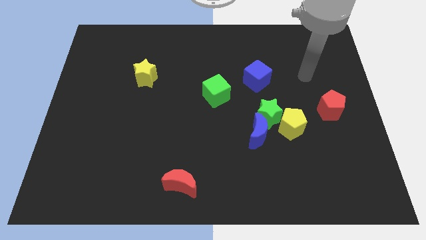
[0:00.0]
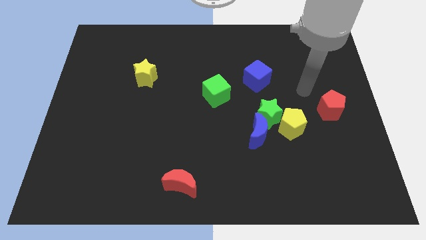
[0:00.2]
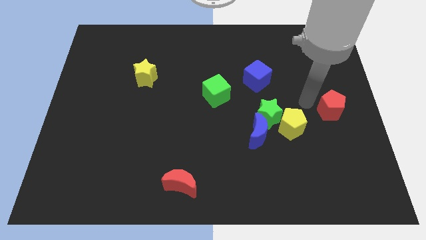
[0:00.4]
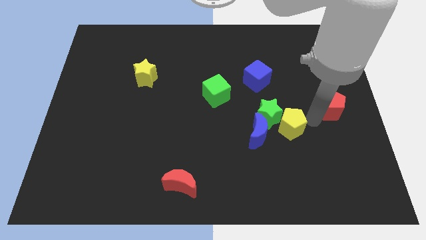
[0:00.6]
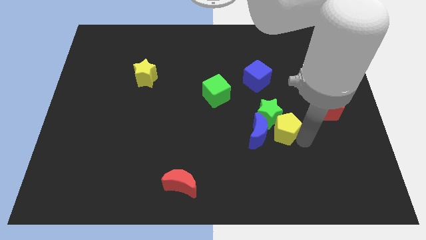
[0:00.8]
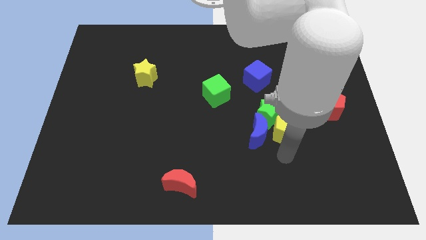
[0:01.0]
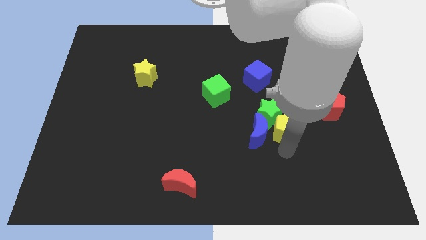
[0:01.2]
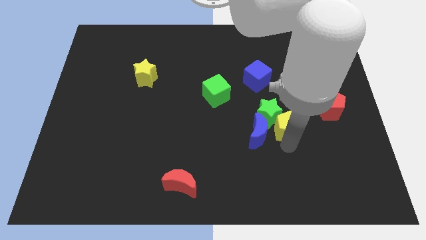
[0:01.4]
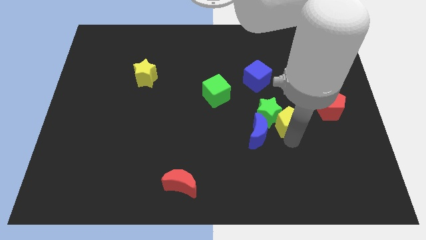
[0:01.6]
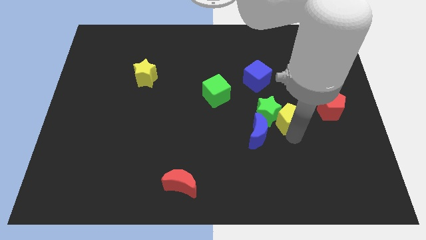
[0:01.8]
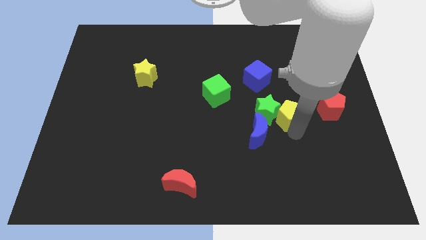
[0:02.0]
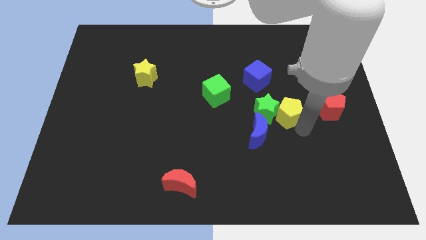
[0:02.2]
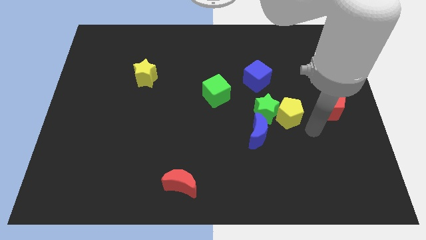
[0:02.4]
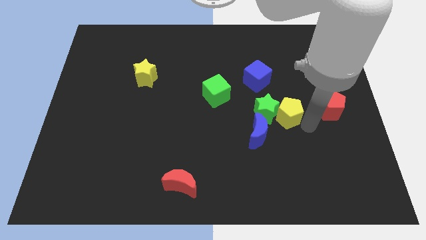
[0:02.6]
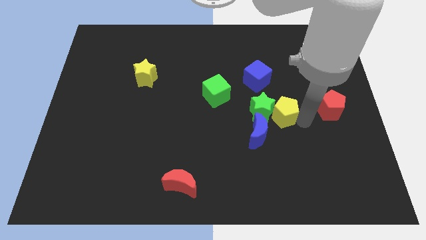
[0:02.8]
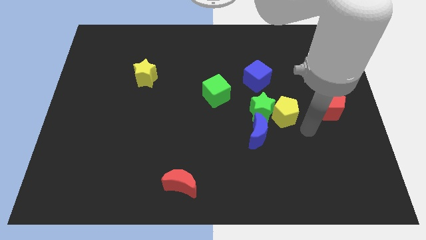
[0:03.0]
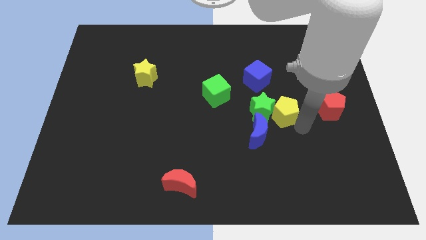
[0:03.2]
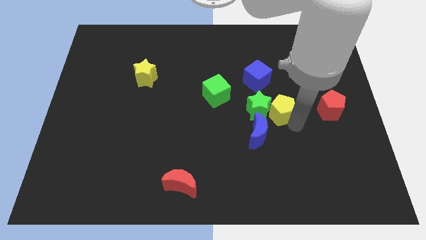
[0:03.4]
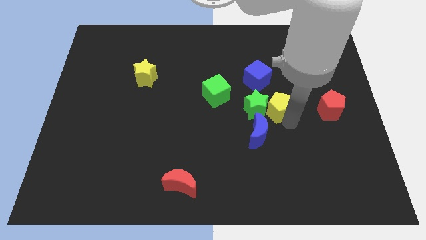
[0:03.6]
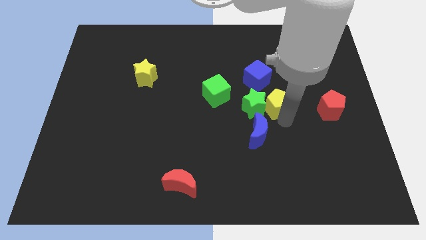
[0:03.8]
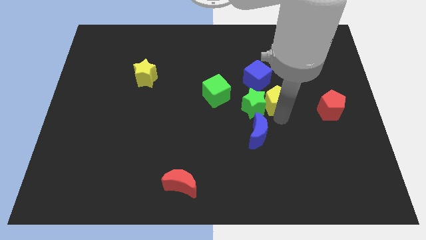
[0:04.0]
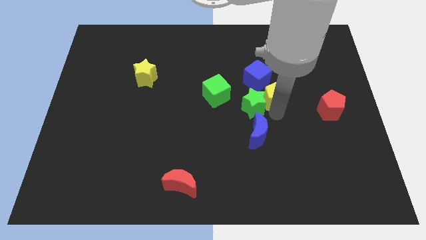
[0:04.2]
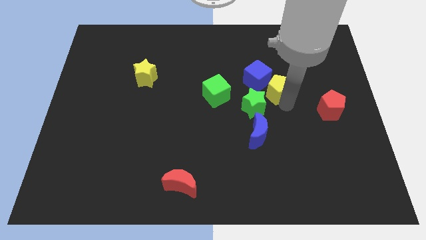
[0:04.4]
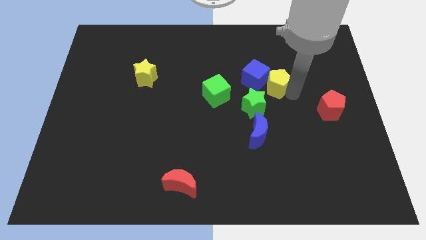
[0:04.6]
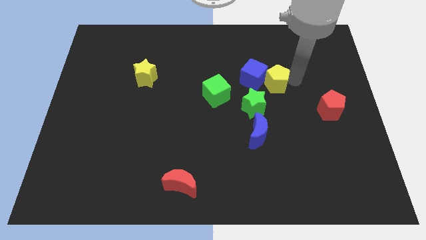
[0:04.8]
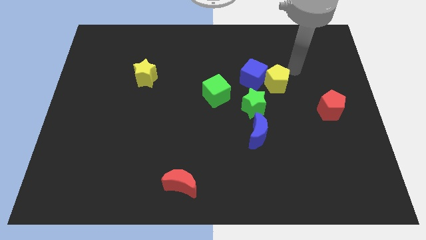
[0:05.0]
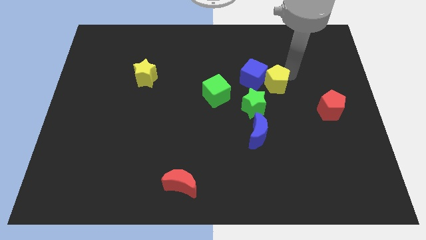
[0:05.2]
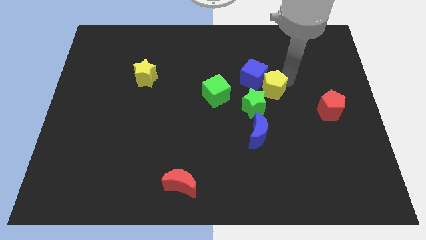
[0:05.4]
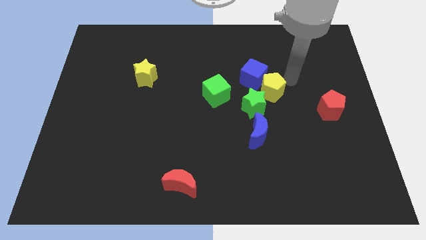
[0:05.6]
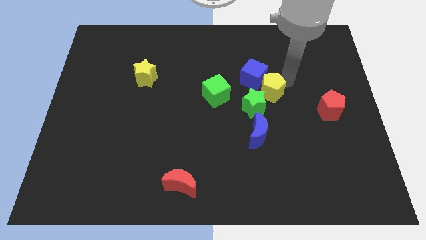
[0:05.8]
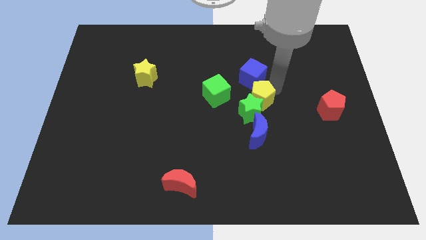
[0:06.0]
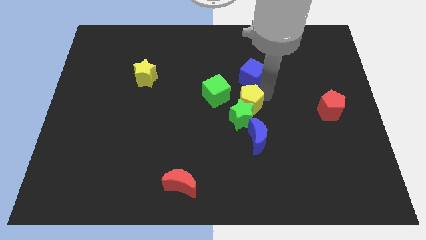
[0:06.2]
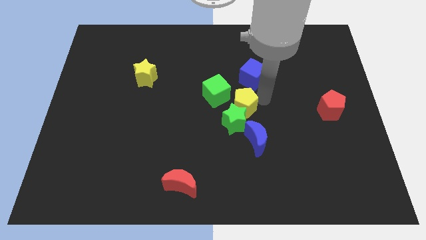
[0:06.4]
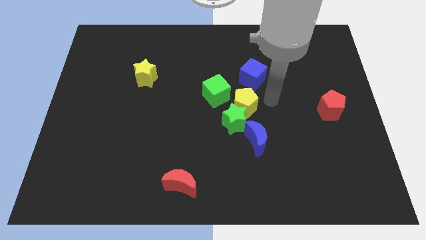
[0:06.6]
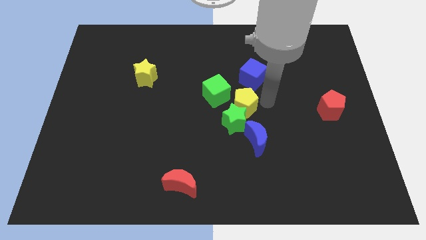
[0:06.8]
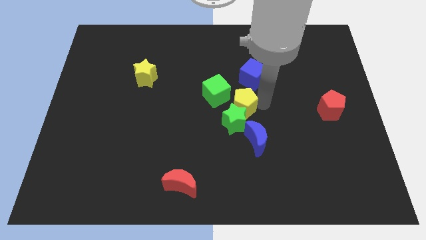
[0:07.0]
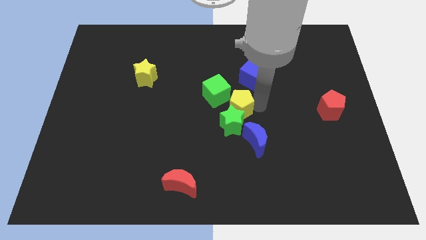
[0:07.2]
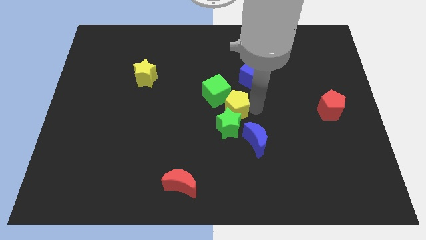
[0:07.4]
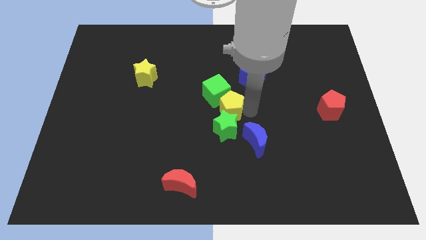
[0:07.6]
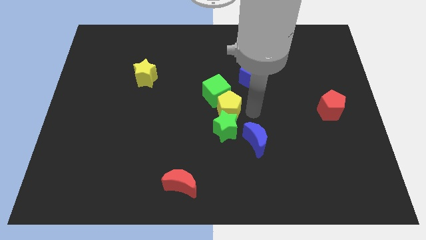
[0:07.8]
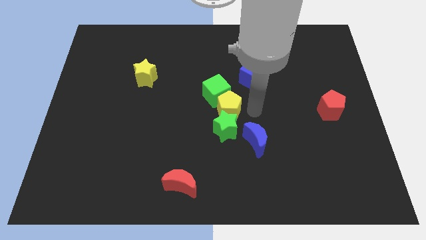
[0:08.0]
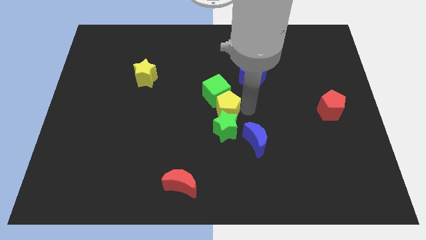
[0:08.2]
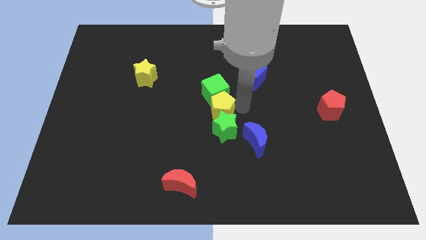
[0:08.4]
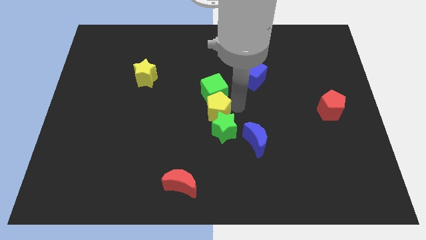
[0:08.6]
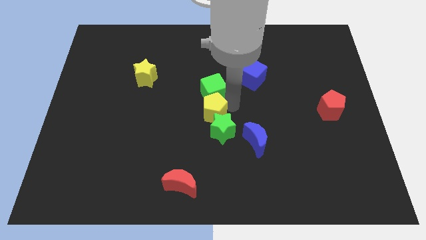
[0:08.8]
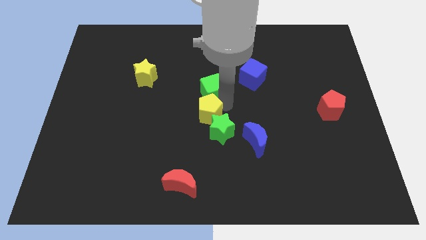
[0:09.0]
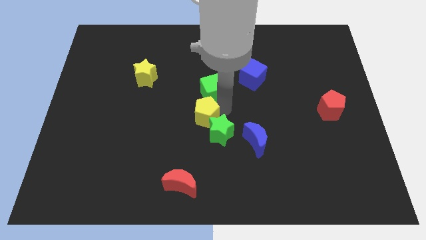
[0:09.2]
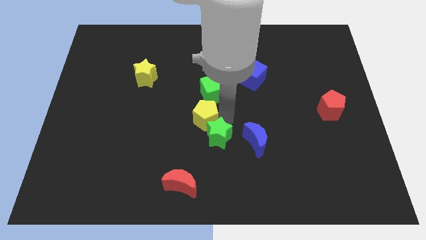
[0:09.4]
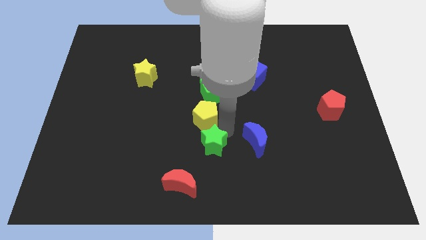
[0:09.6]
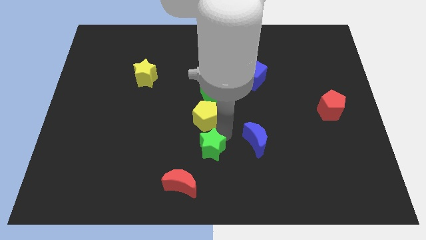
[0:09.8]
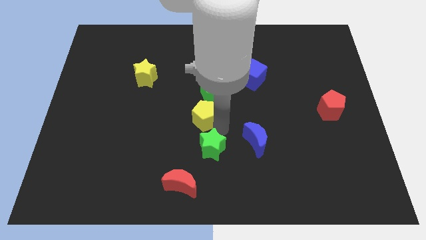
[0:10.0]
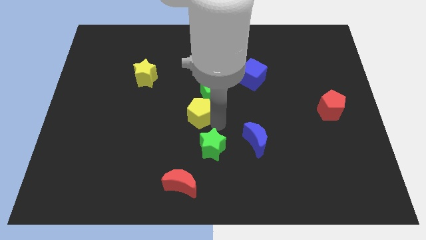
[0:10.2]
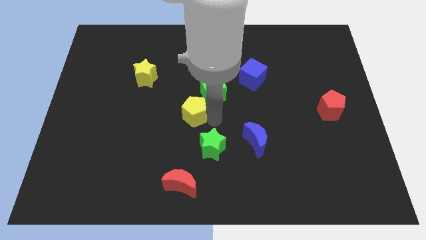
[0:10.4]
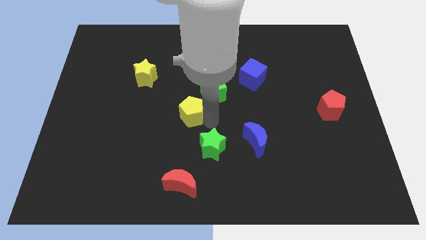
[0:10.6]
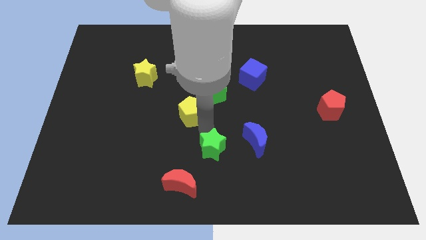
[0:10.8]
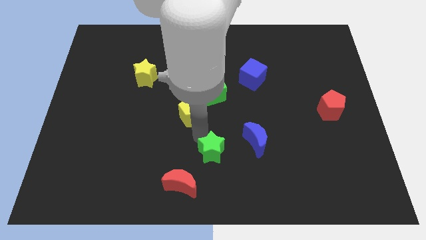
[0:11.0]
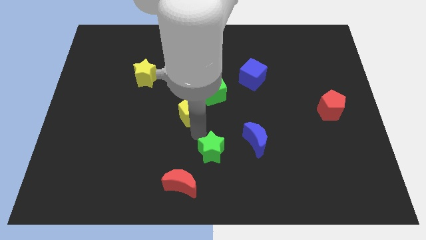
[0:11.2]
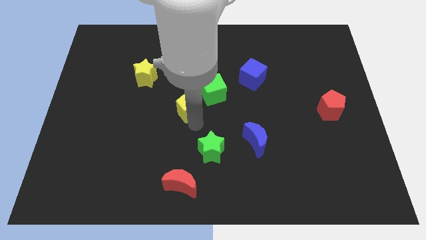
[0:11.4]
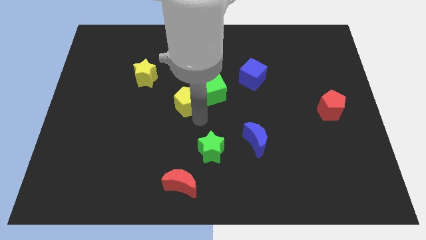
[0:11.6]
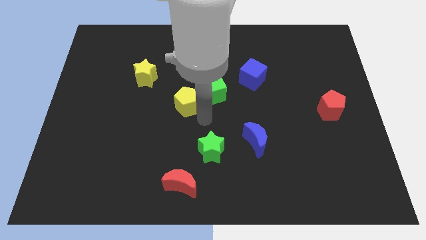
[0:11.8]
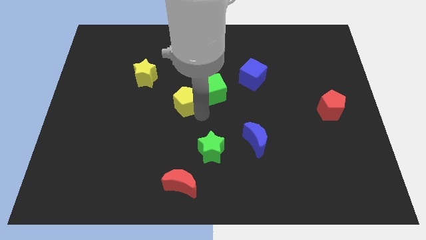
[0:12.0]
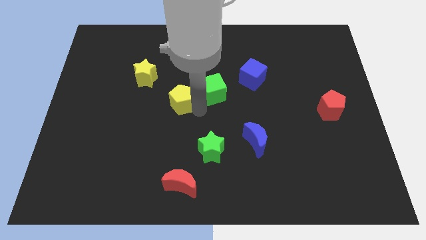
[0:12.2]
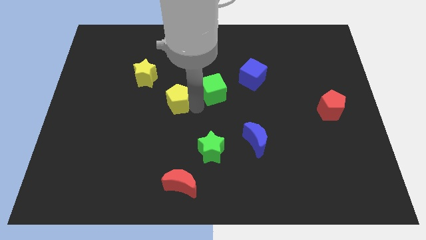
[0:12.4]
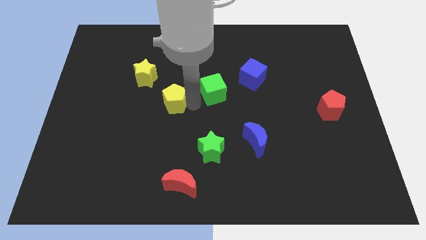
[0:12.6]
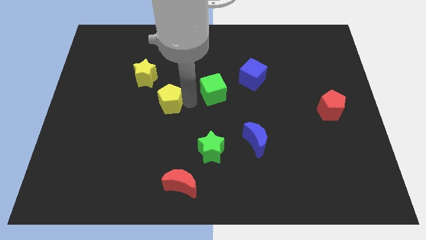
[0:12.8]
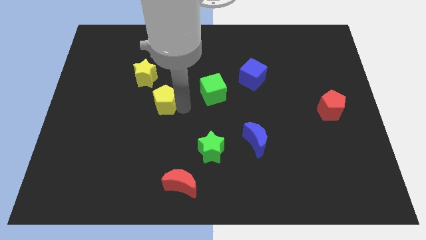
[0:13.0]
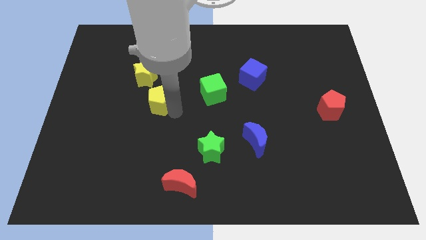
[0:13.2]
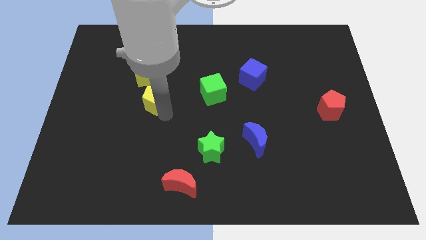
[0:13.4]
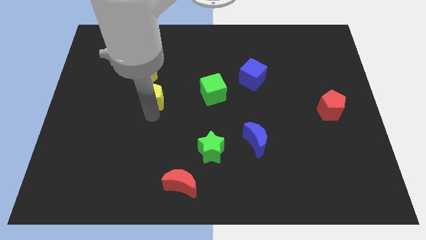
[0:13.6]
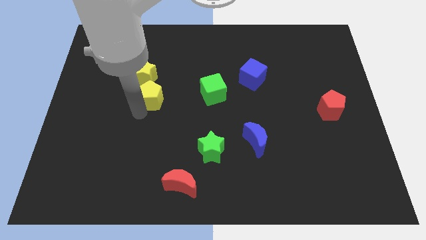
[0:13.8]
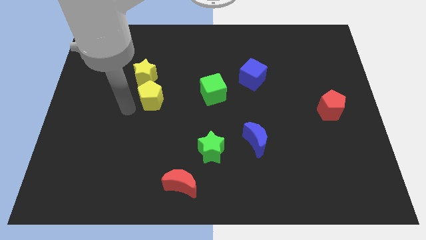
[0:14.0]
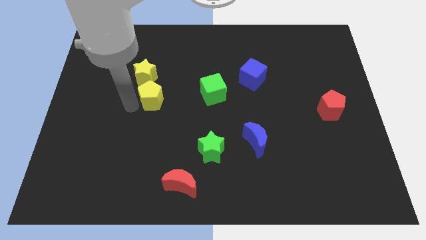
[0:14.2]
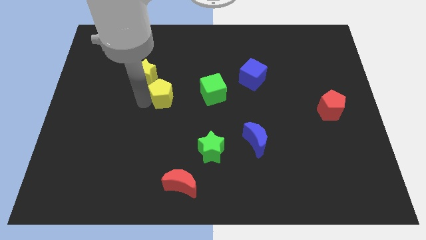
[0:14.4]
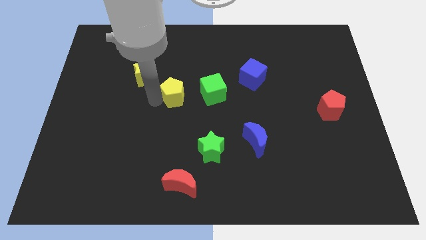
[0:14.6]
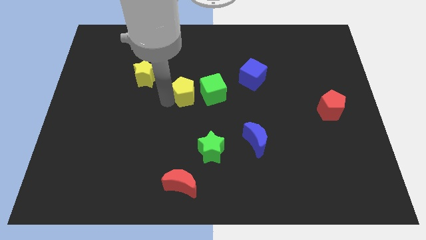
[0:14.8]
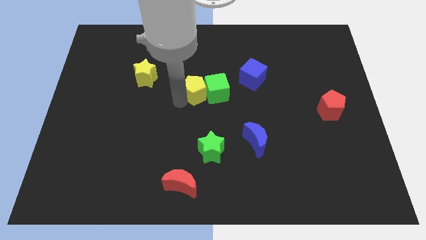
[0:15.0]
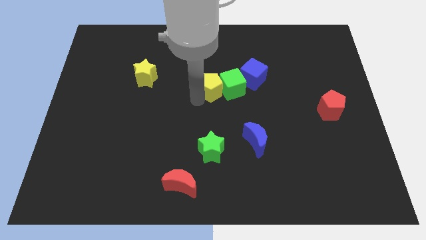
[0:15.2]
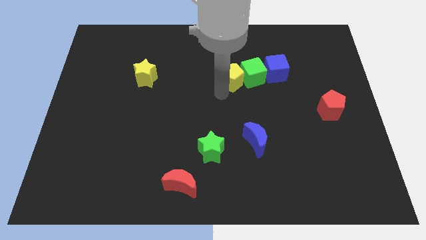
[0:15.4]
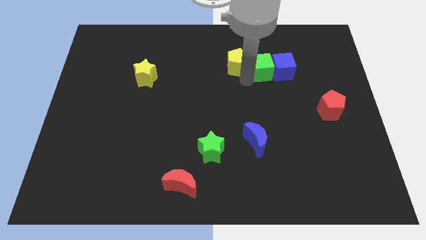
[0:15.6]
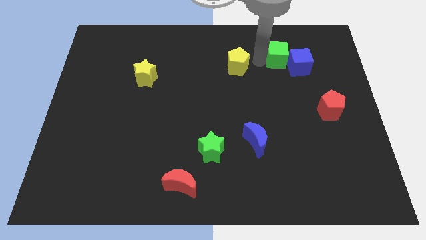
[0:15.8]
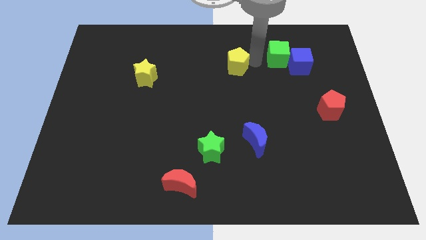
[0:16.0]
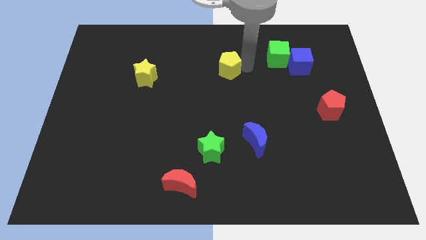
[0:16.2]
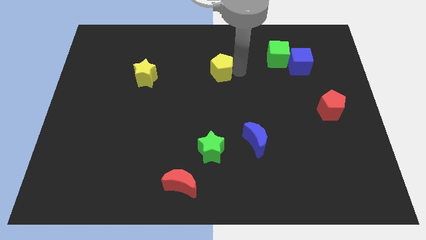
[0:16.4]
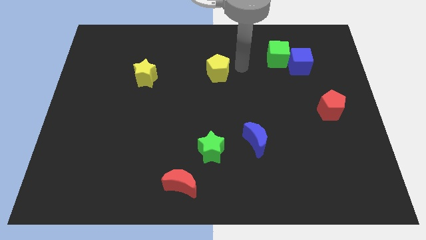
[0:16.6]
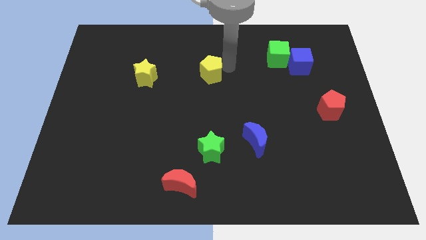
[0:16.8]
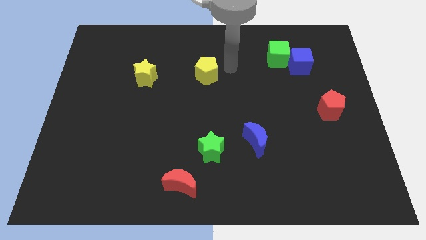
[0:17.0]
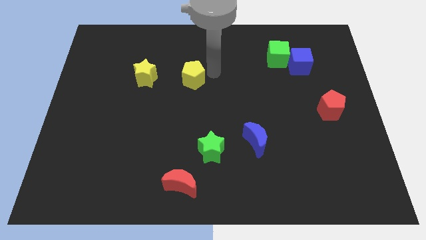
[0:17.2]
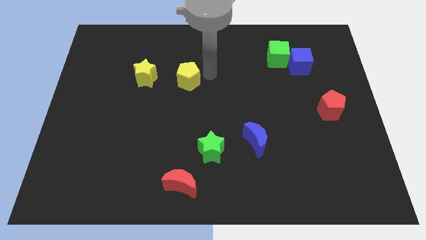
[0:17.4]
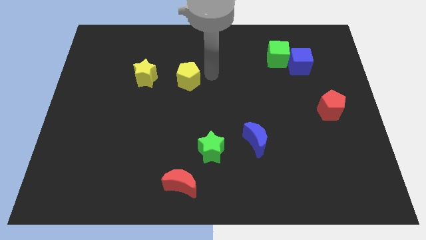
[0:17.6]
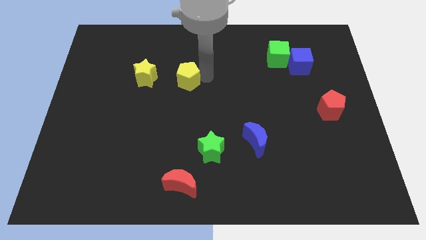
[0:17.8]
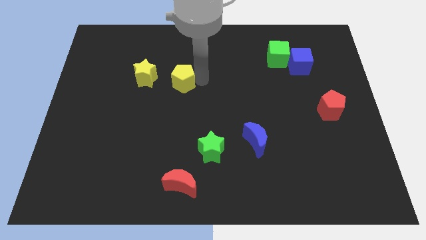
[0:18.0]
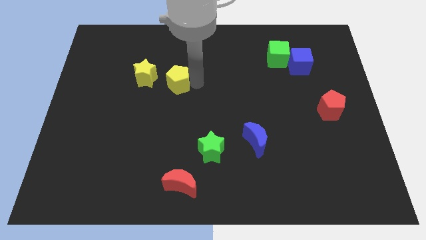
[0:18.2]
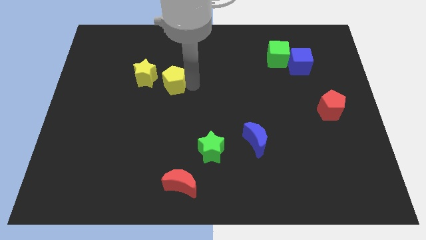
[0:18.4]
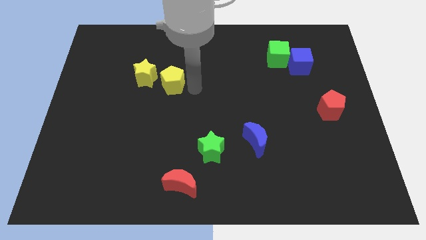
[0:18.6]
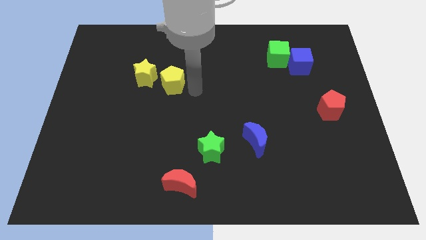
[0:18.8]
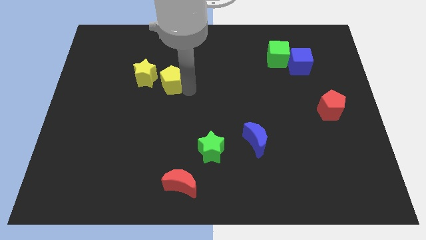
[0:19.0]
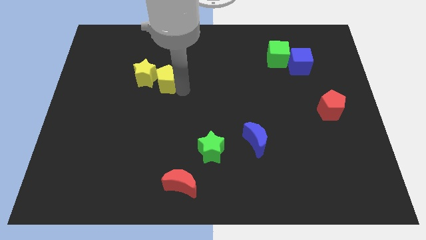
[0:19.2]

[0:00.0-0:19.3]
slide the yellow pentagon close to the yellow star
